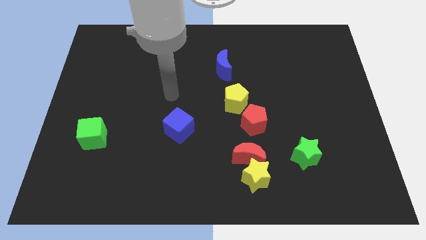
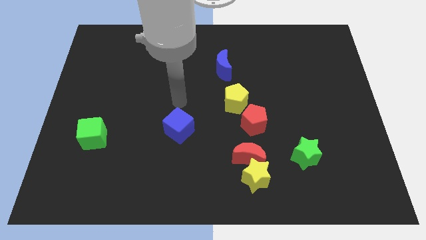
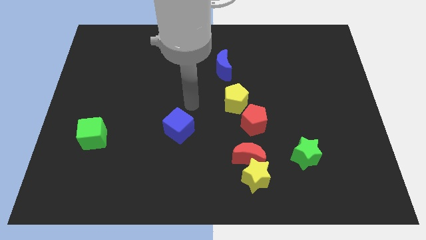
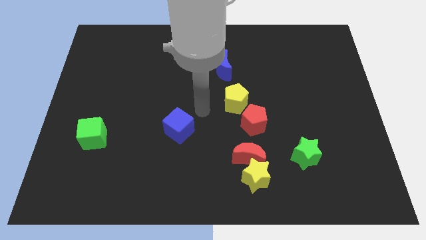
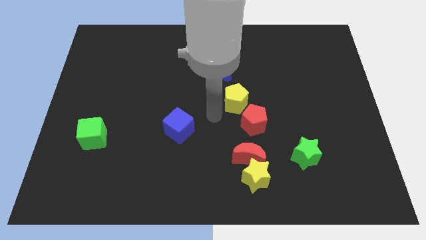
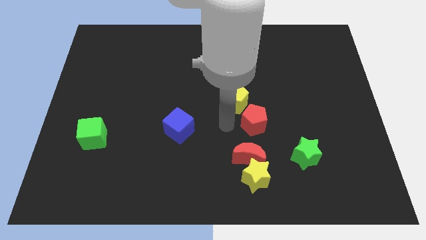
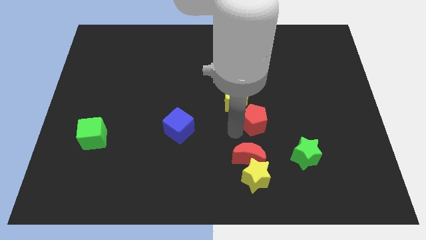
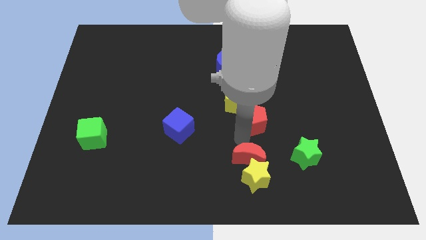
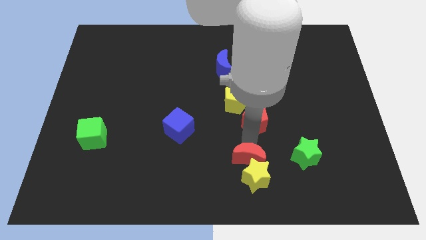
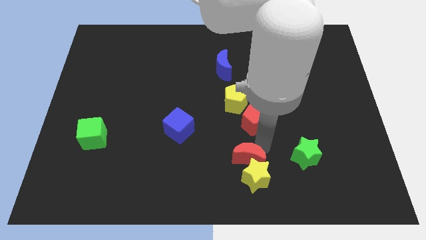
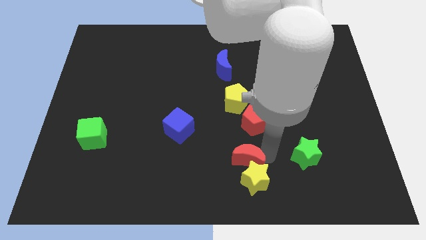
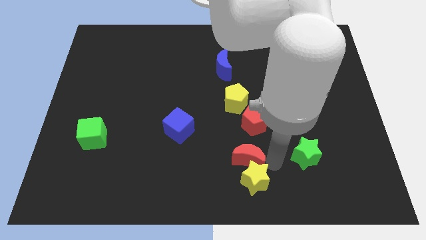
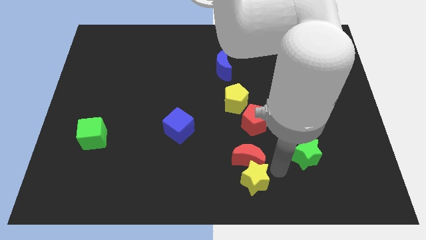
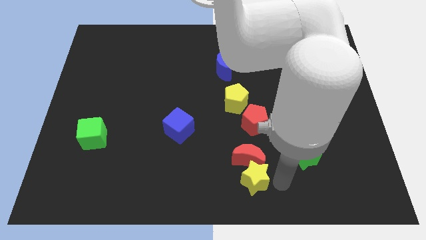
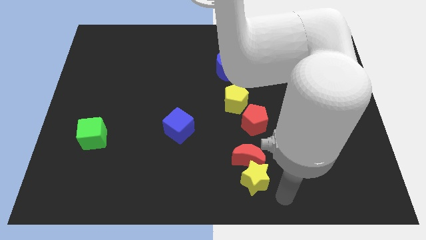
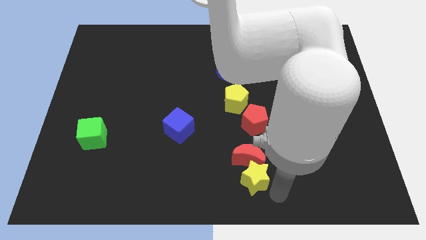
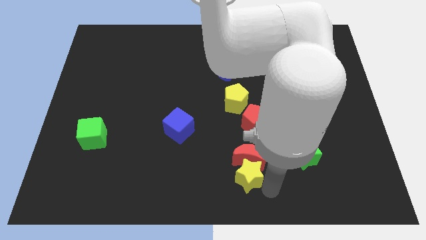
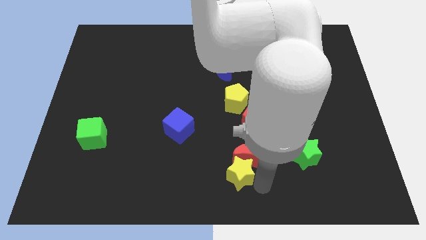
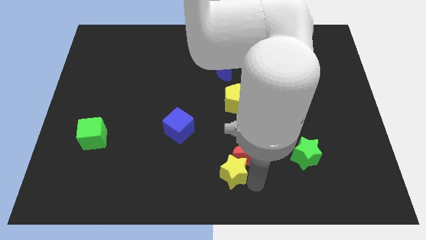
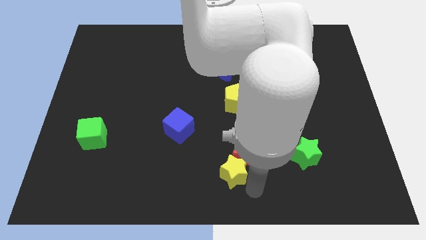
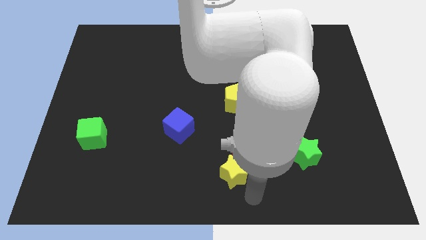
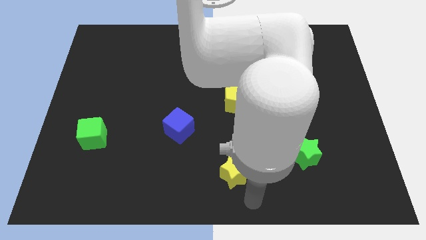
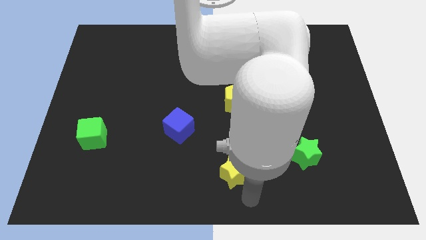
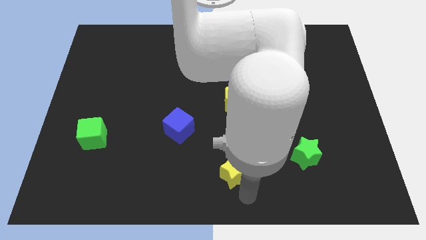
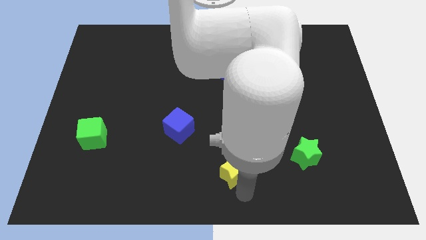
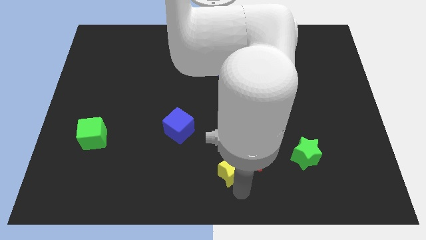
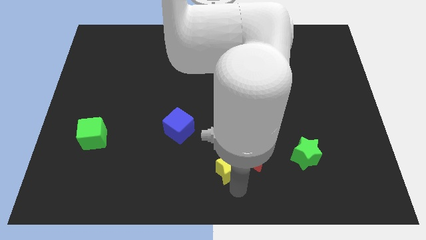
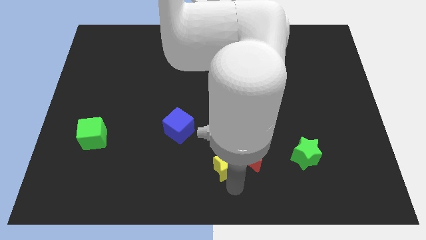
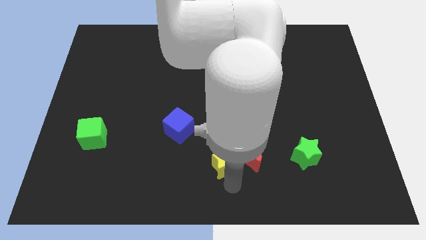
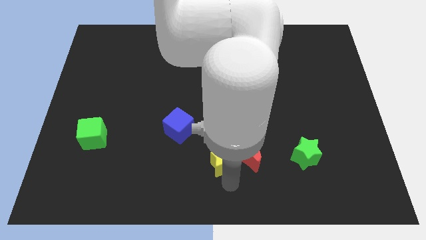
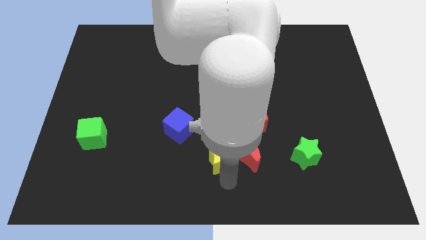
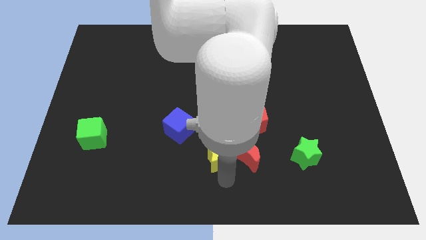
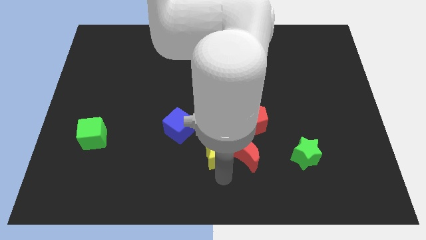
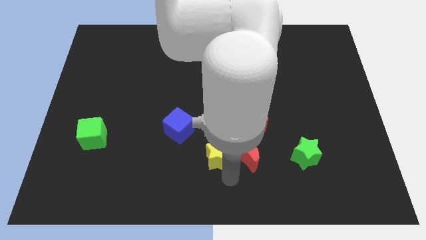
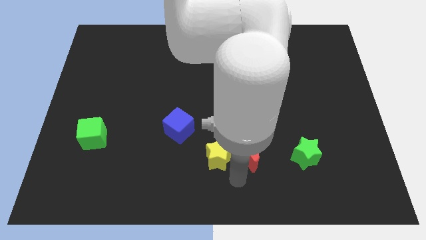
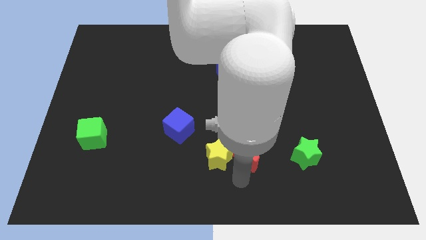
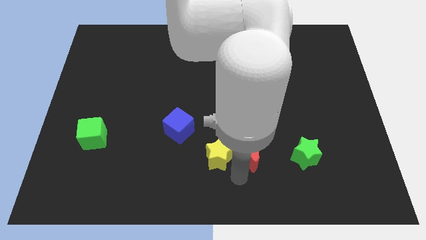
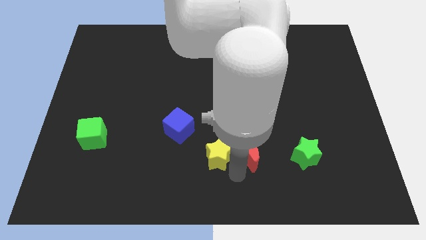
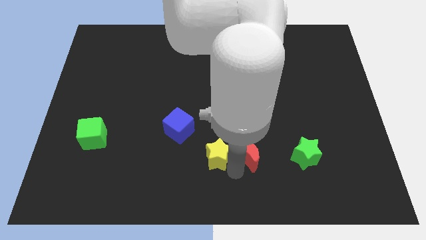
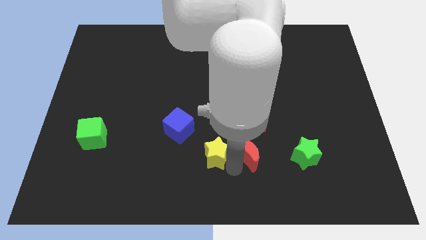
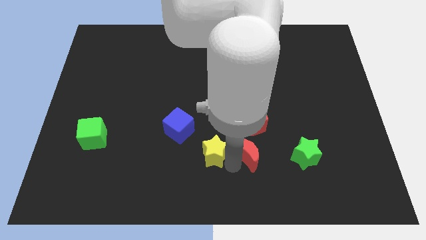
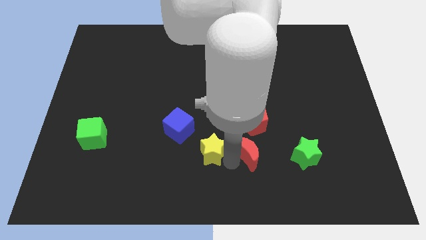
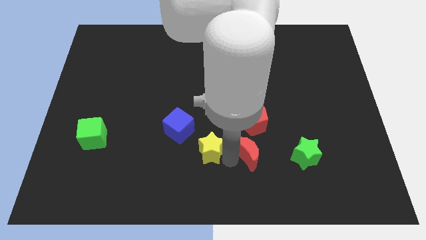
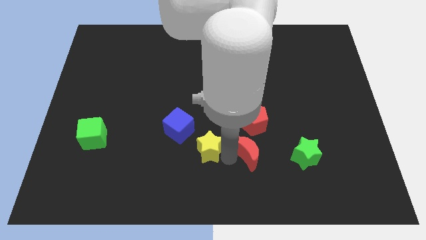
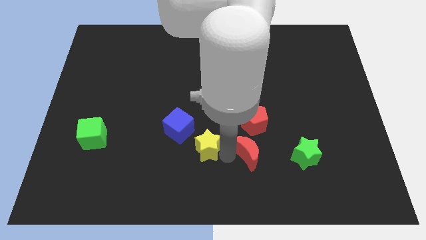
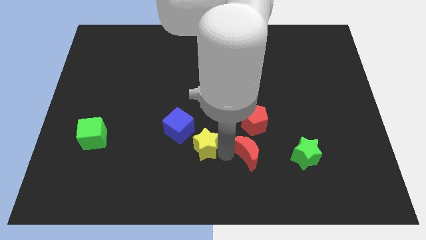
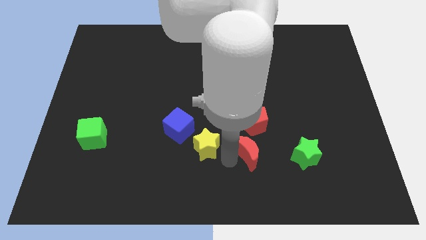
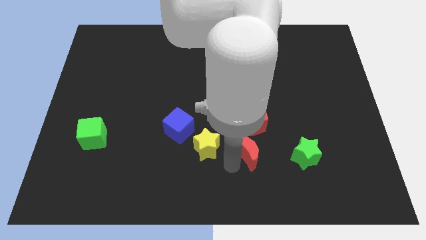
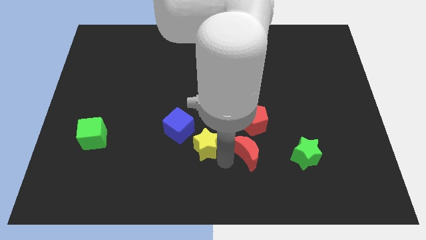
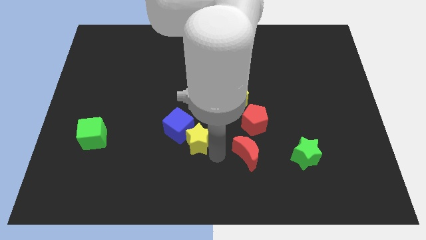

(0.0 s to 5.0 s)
slide the yellow star next to the blue cube

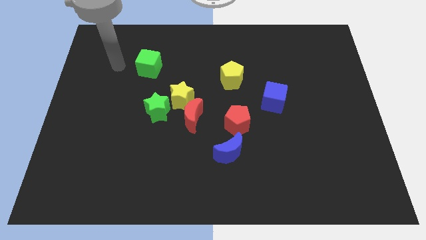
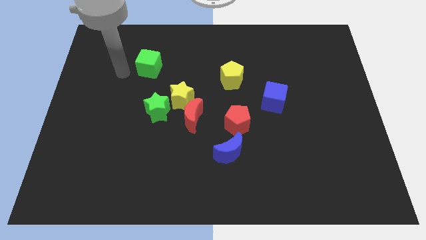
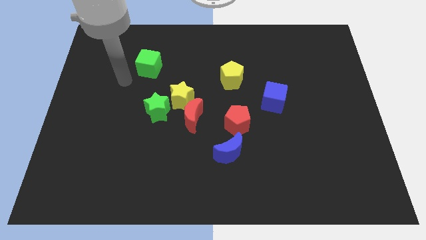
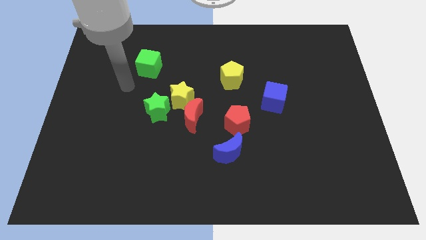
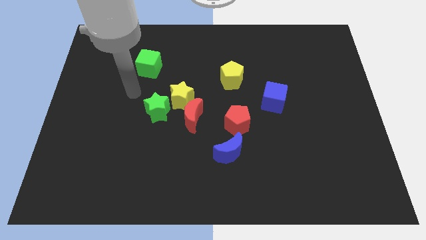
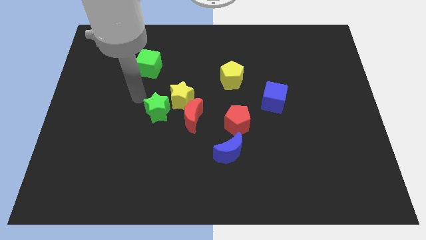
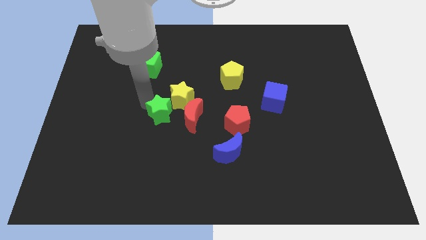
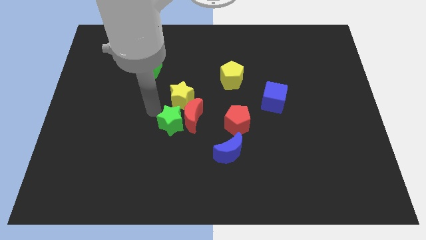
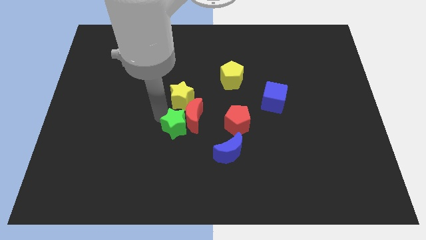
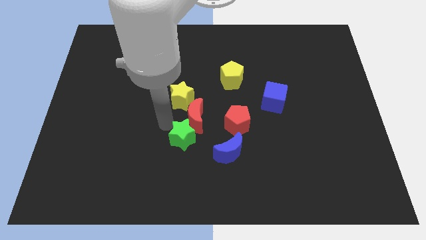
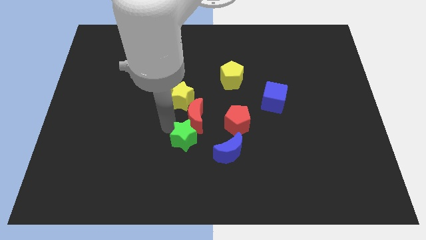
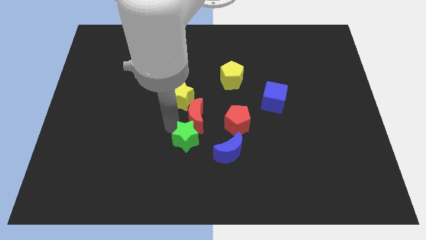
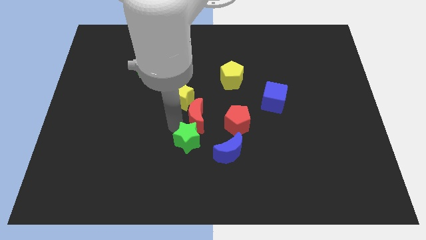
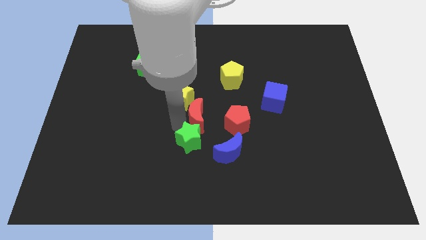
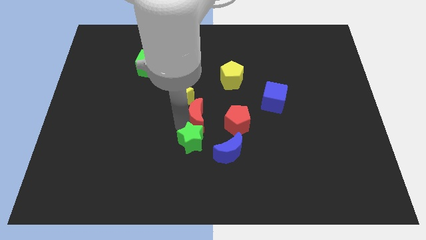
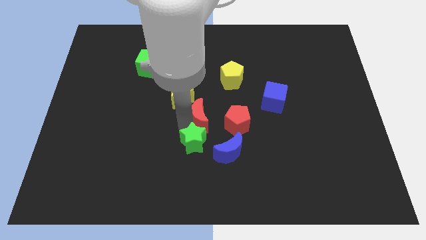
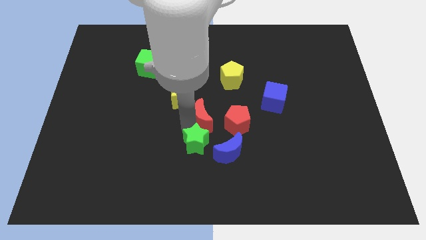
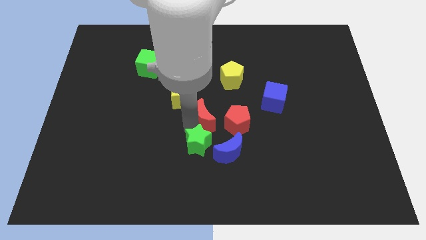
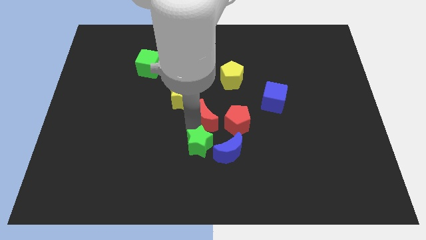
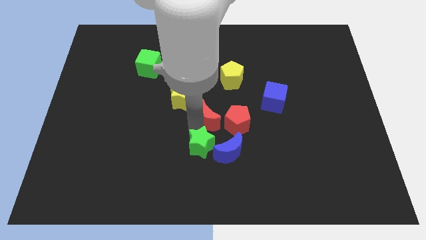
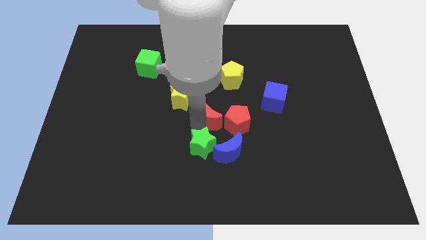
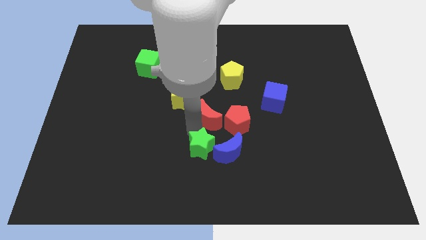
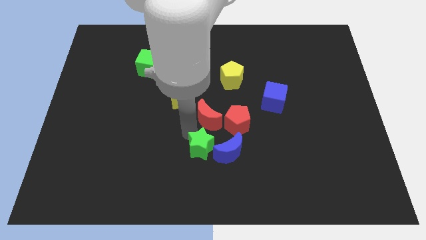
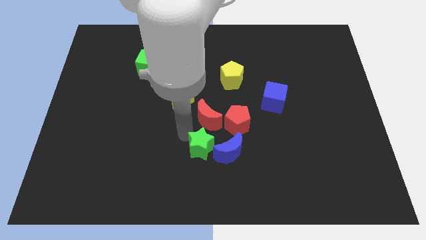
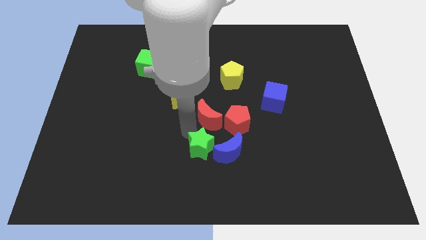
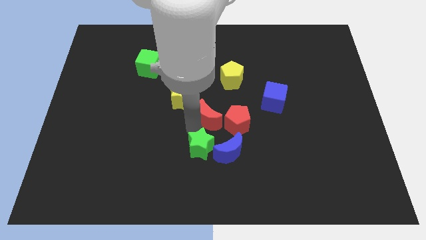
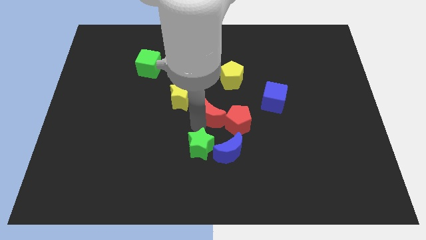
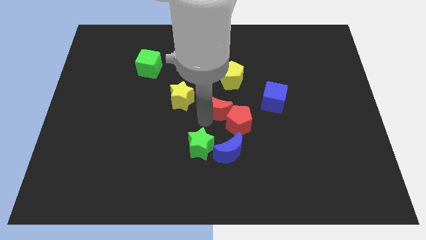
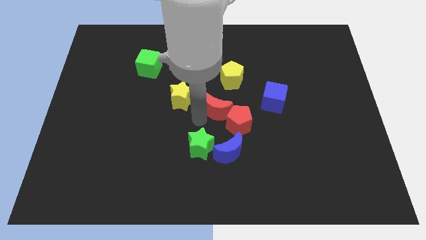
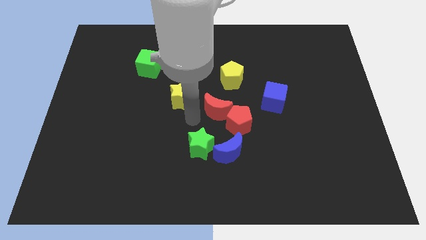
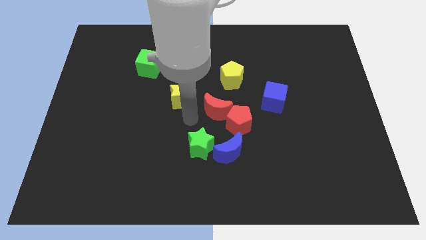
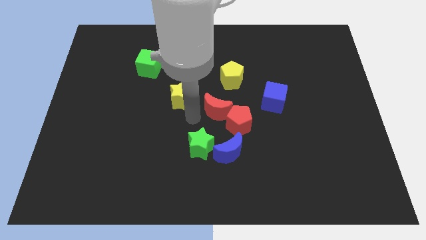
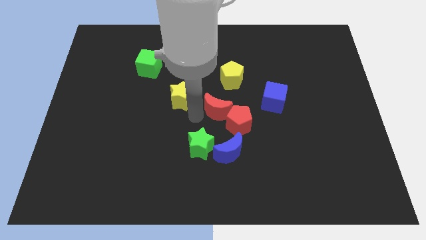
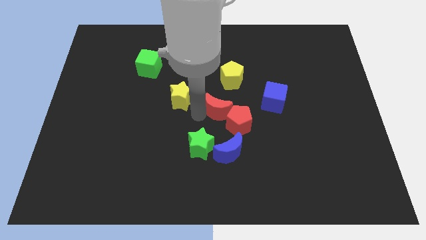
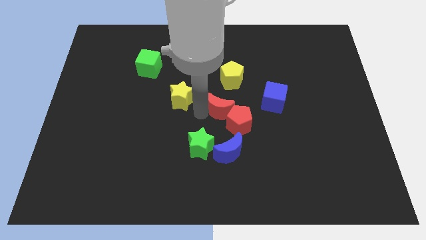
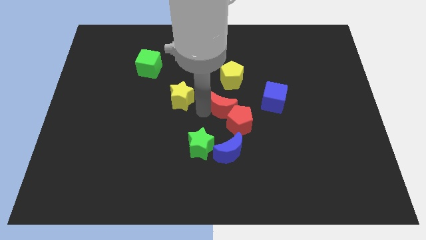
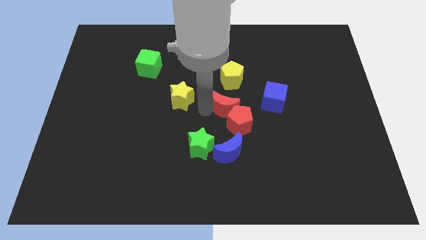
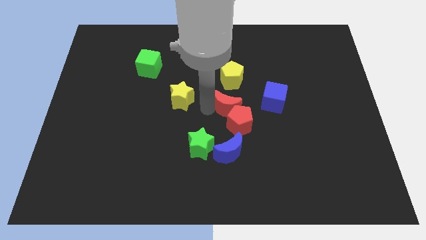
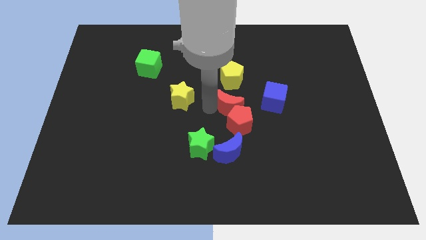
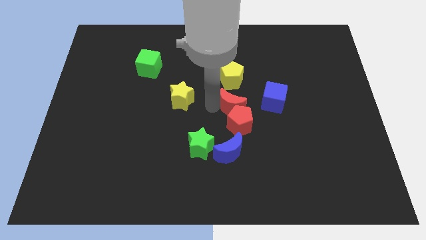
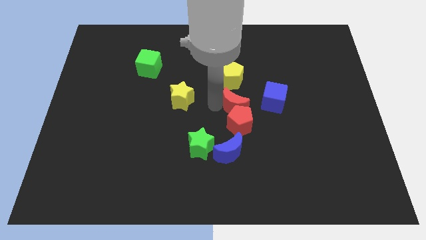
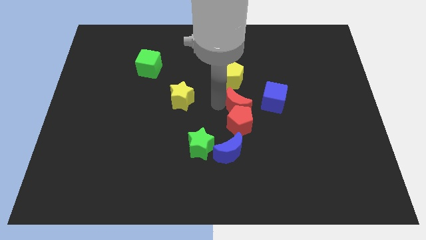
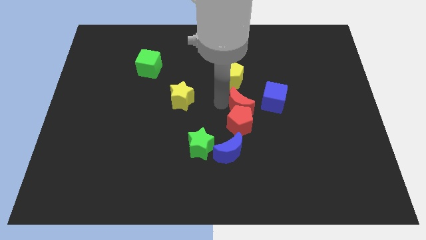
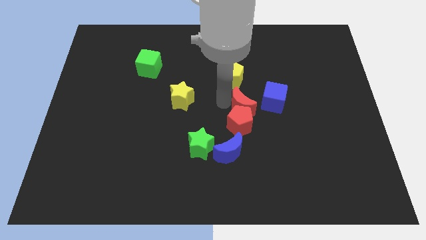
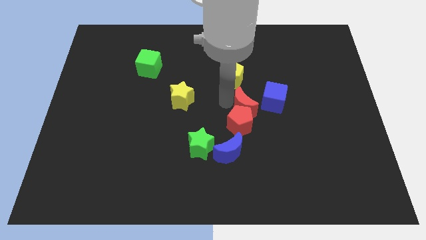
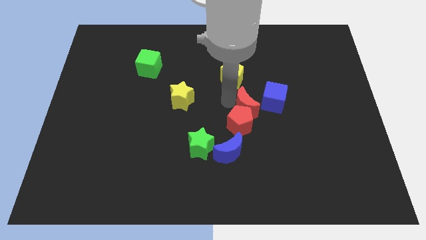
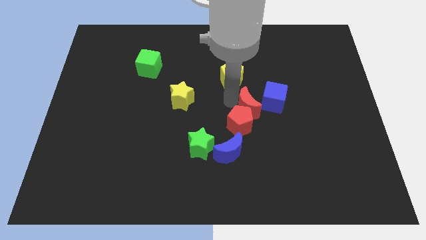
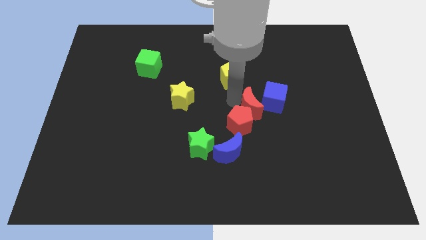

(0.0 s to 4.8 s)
slide the red moon close to the blue cube
